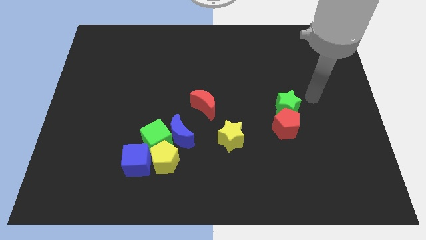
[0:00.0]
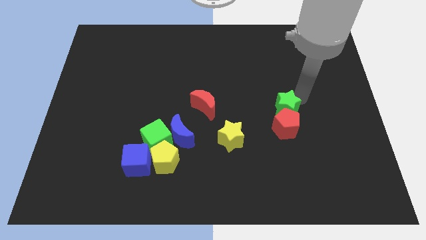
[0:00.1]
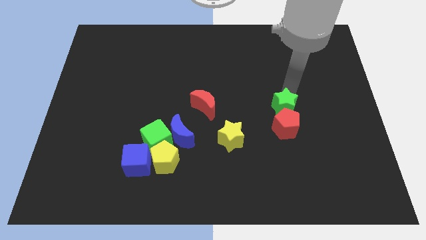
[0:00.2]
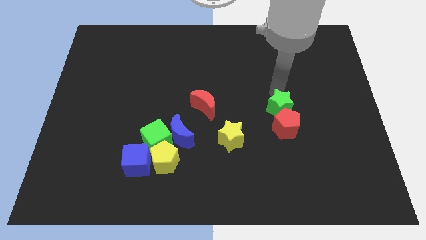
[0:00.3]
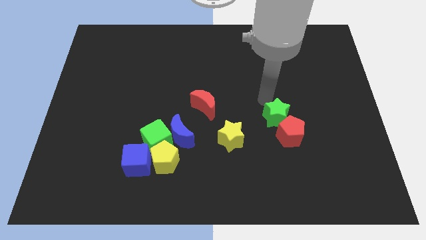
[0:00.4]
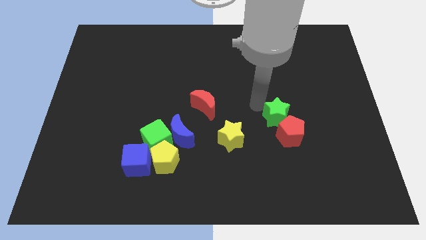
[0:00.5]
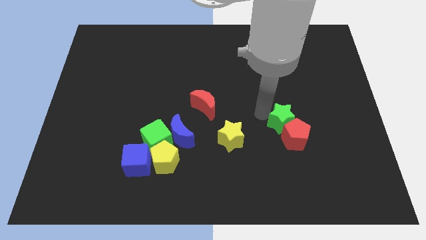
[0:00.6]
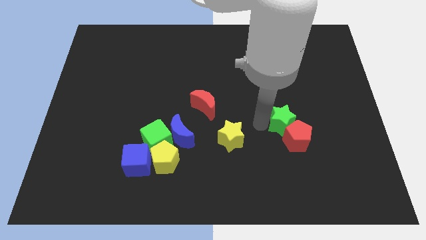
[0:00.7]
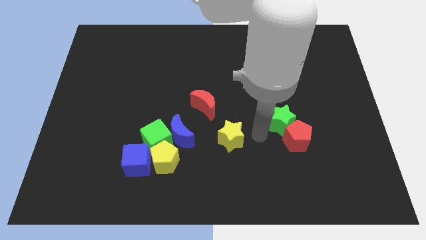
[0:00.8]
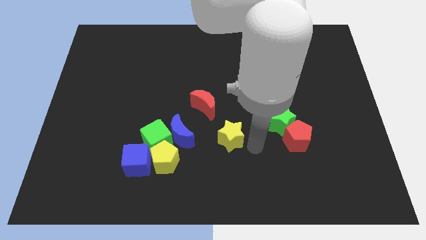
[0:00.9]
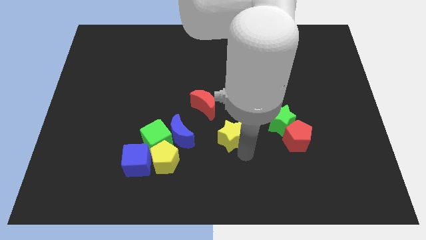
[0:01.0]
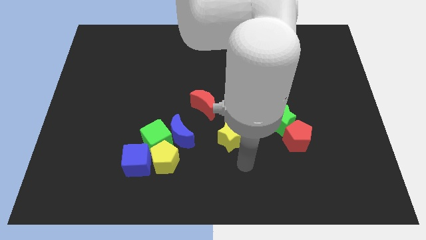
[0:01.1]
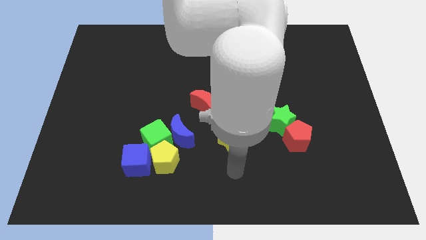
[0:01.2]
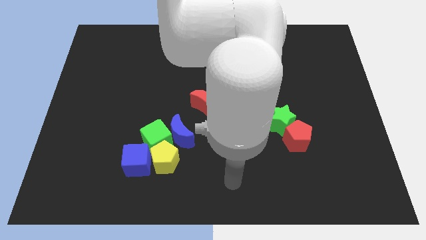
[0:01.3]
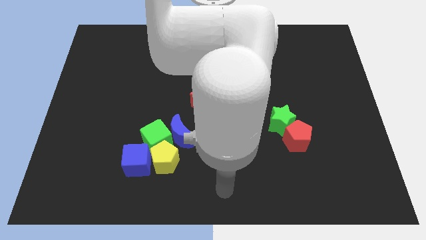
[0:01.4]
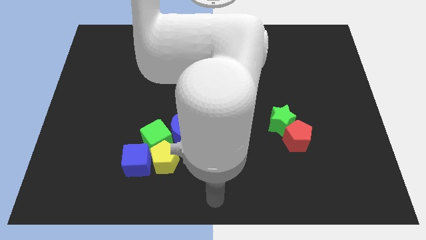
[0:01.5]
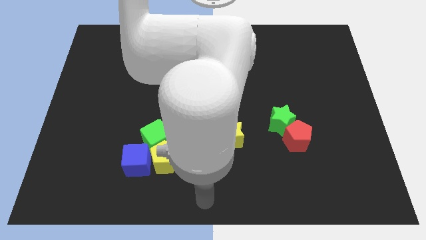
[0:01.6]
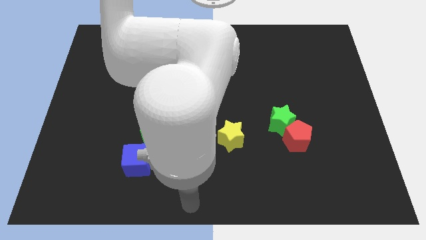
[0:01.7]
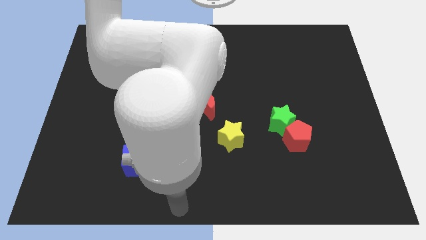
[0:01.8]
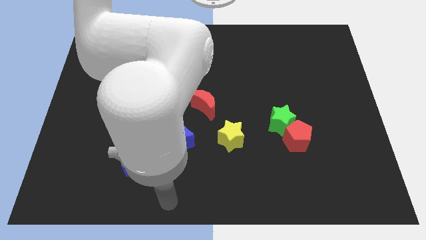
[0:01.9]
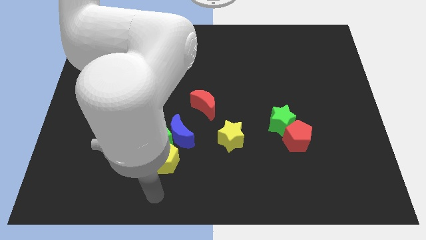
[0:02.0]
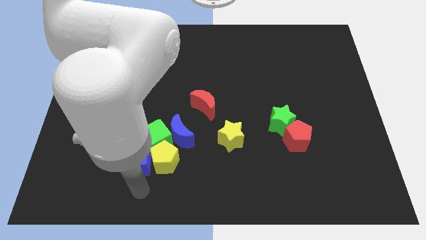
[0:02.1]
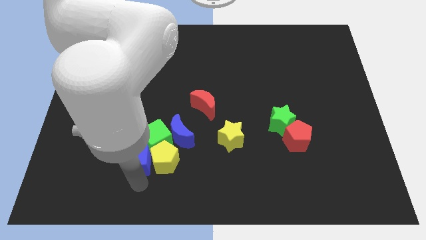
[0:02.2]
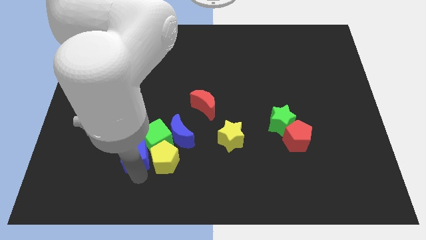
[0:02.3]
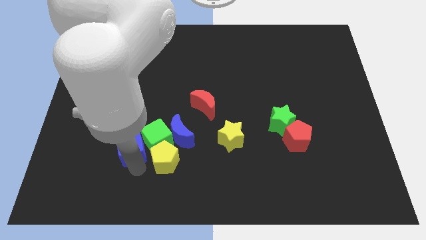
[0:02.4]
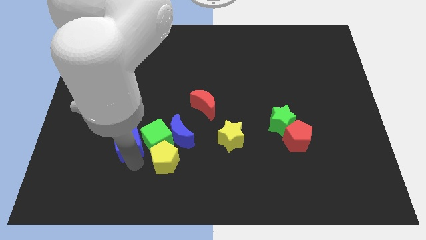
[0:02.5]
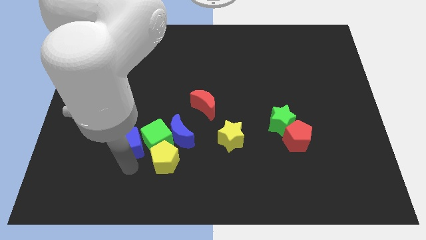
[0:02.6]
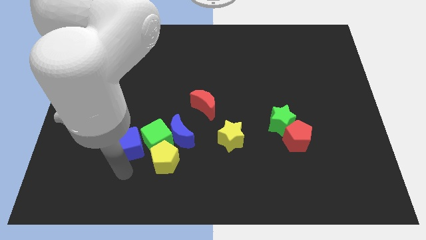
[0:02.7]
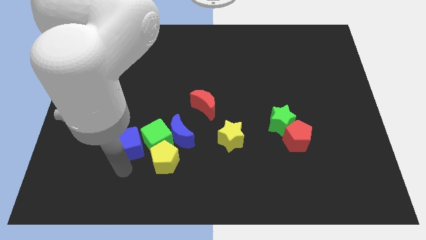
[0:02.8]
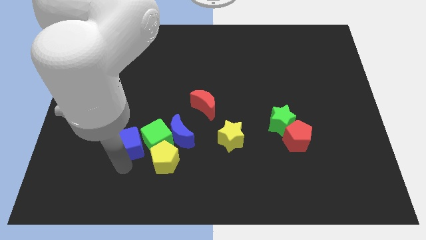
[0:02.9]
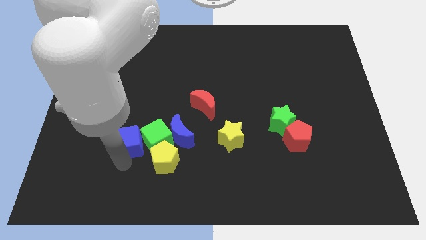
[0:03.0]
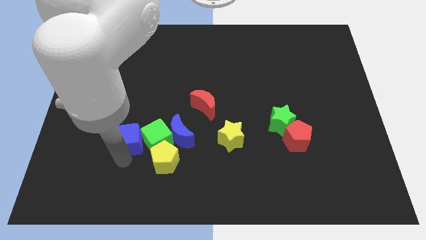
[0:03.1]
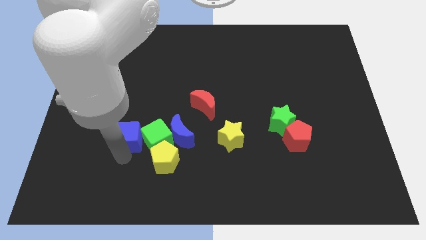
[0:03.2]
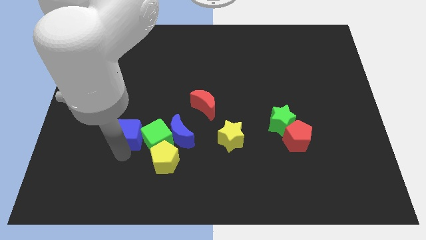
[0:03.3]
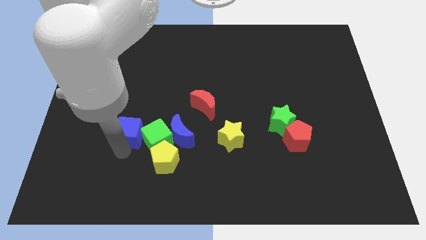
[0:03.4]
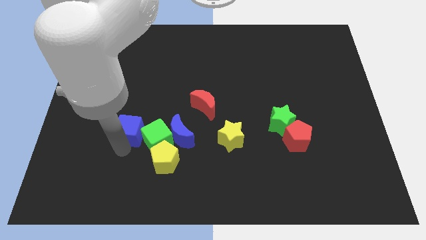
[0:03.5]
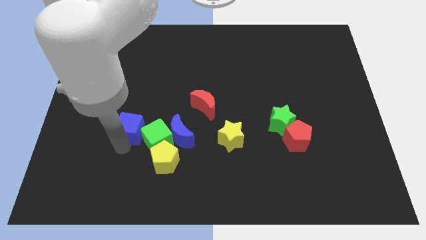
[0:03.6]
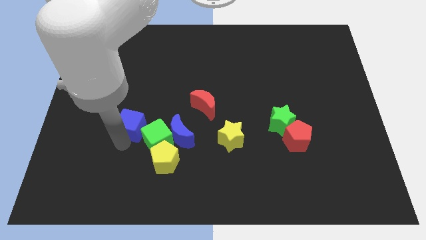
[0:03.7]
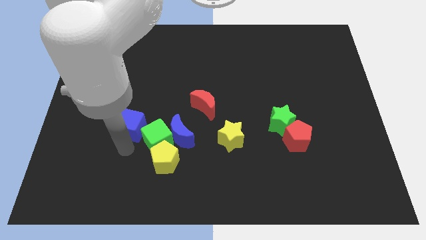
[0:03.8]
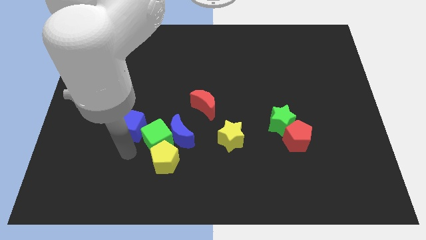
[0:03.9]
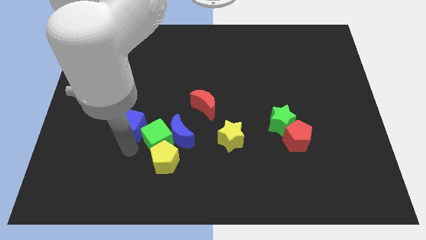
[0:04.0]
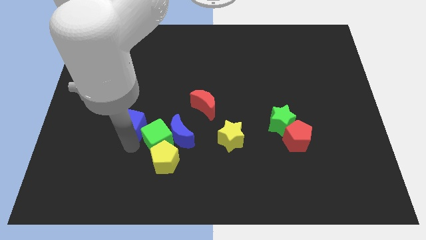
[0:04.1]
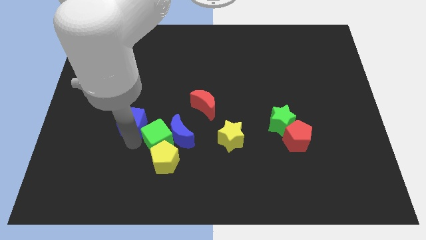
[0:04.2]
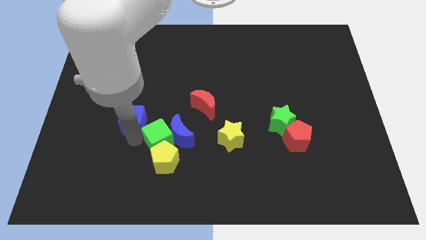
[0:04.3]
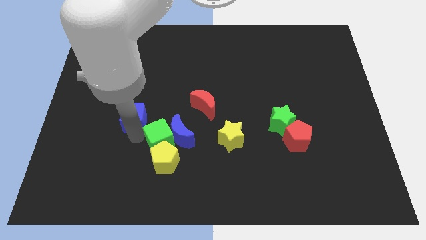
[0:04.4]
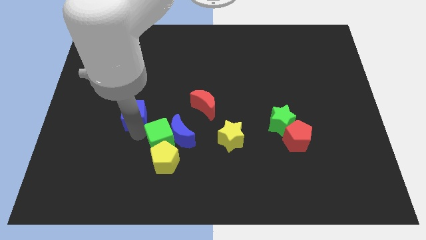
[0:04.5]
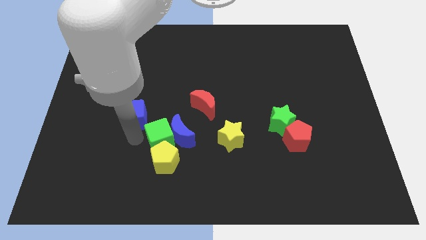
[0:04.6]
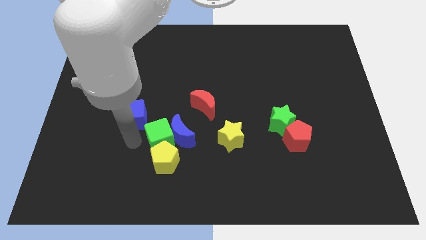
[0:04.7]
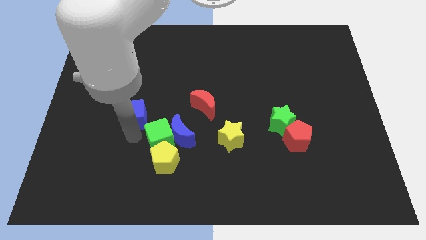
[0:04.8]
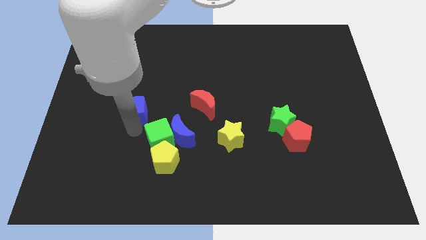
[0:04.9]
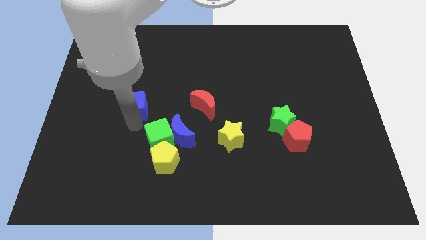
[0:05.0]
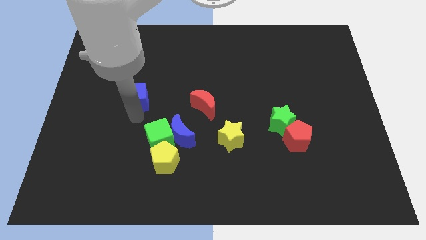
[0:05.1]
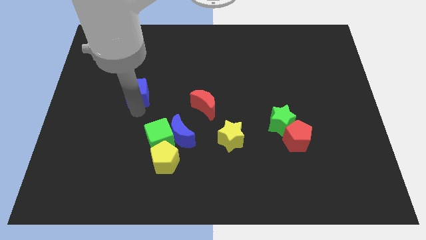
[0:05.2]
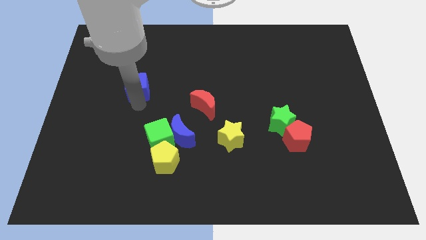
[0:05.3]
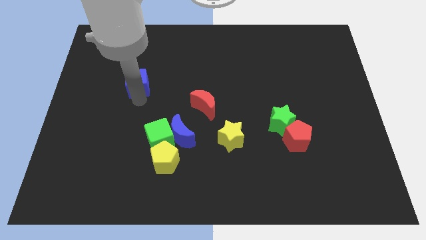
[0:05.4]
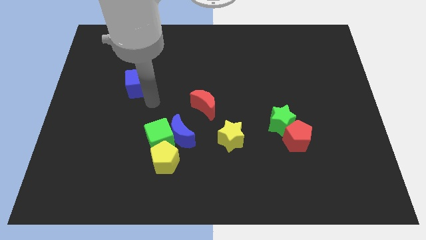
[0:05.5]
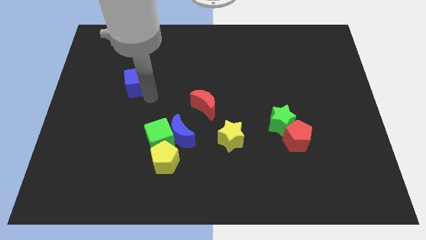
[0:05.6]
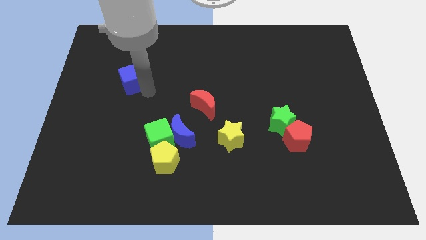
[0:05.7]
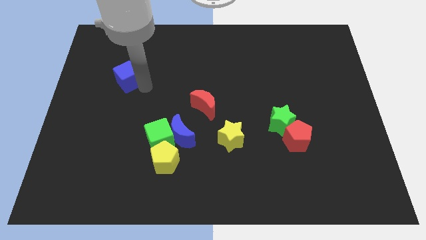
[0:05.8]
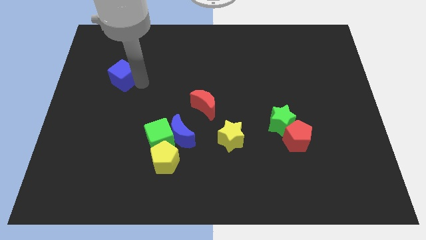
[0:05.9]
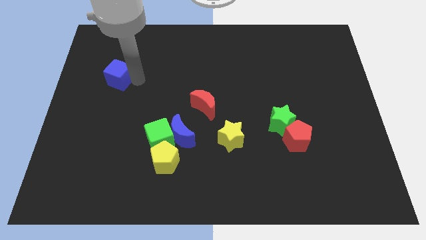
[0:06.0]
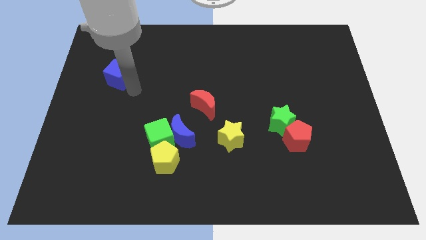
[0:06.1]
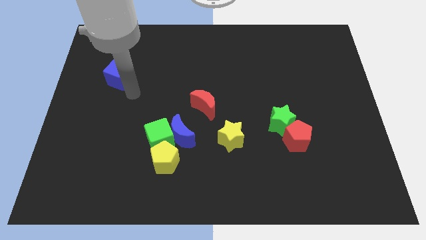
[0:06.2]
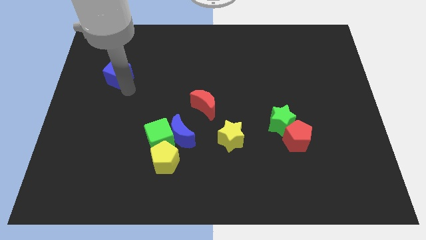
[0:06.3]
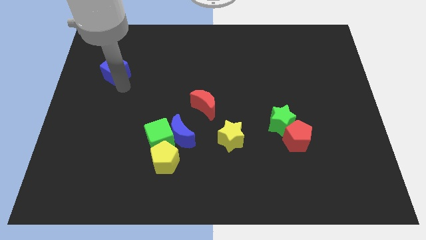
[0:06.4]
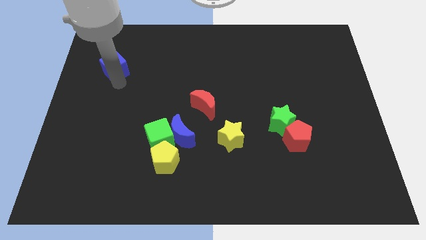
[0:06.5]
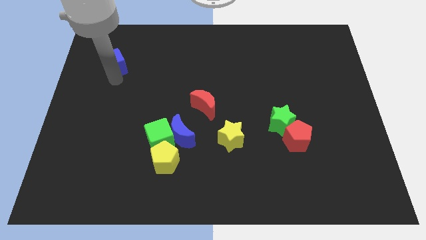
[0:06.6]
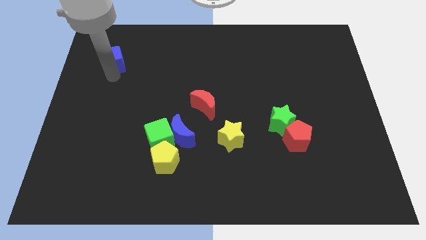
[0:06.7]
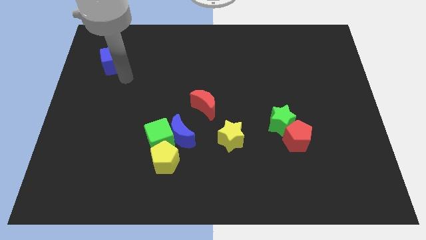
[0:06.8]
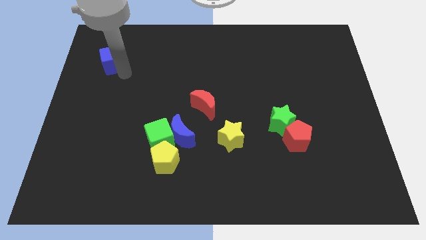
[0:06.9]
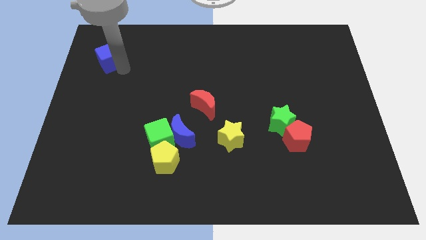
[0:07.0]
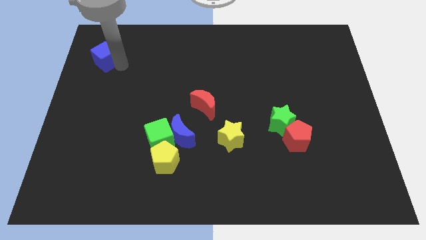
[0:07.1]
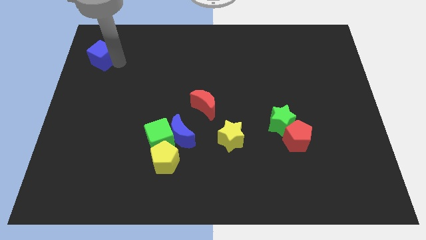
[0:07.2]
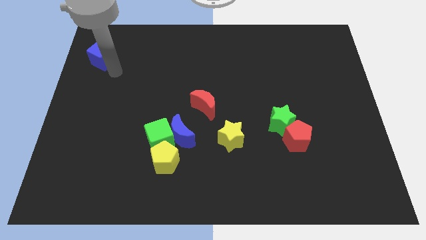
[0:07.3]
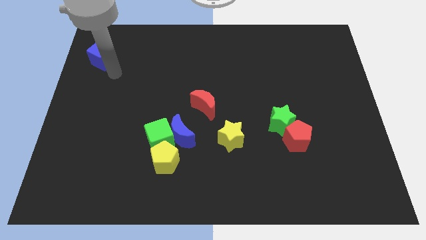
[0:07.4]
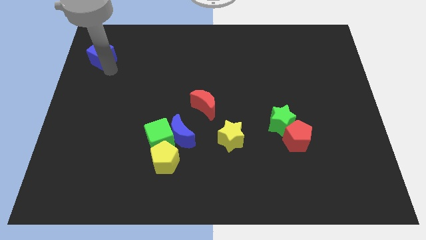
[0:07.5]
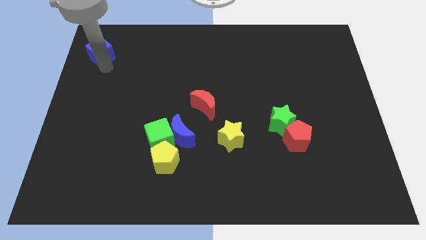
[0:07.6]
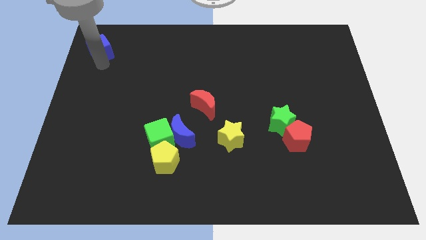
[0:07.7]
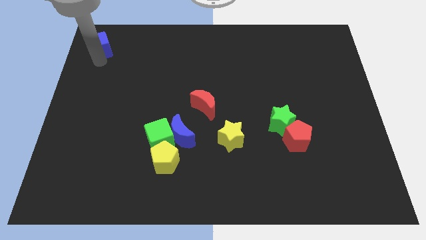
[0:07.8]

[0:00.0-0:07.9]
put the blue cube to the top left
